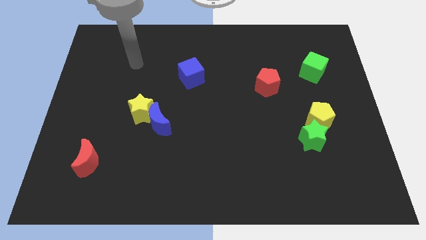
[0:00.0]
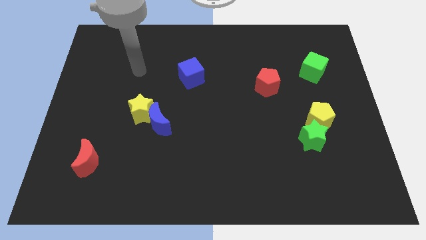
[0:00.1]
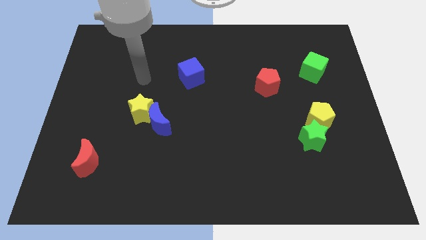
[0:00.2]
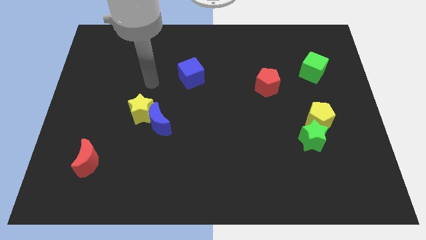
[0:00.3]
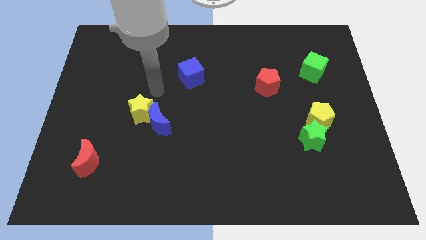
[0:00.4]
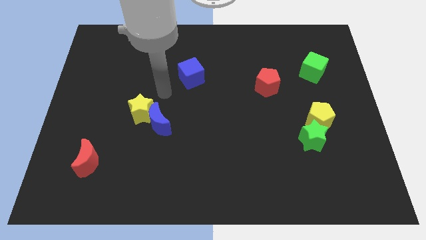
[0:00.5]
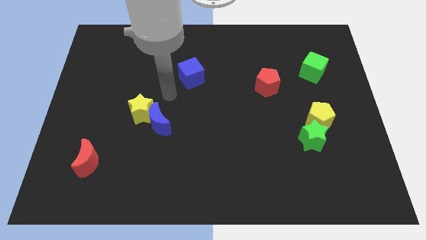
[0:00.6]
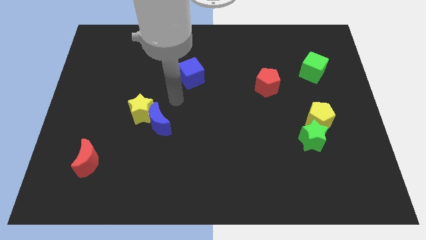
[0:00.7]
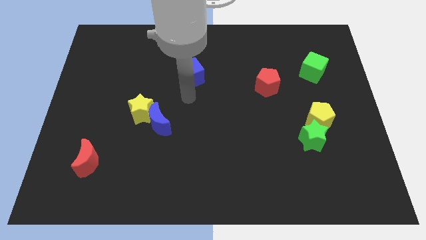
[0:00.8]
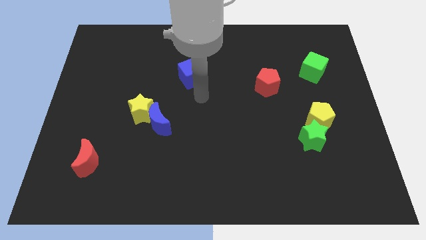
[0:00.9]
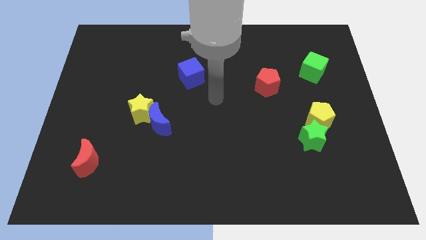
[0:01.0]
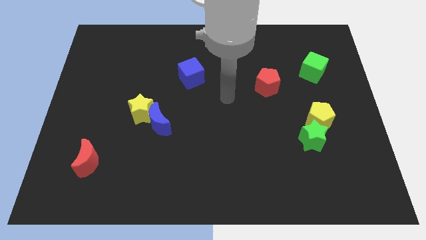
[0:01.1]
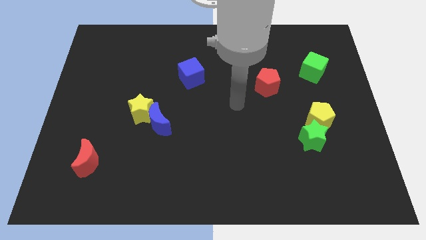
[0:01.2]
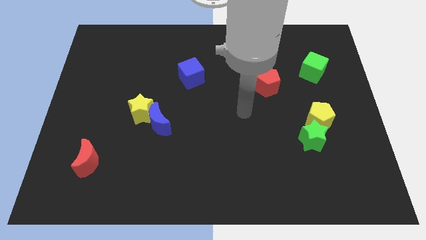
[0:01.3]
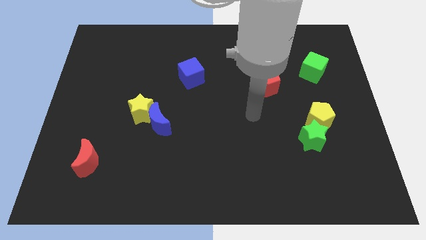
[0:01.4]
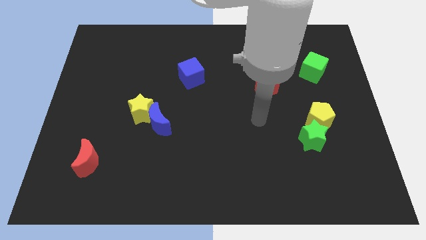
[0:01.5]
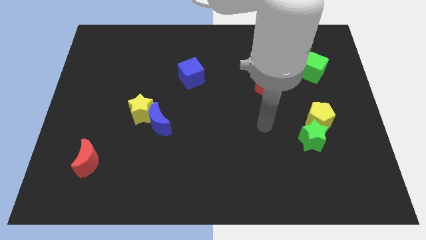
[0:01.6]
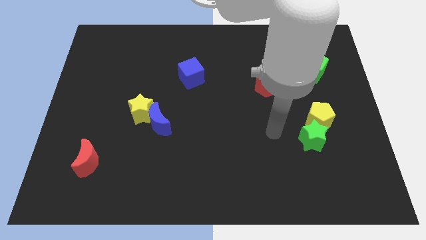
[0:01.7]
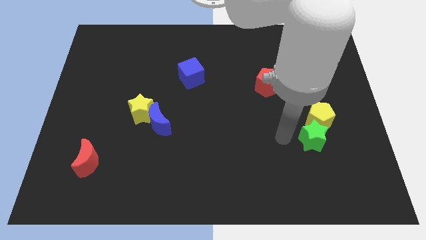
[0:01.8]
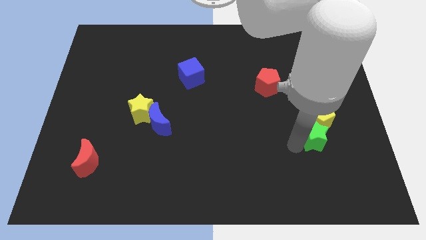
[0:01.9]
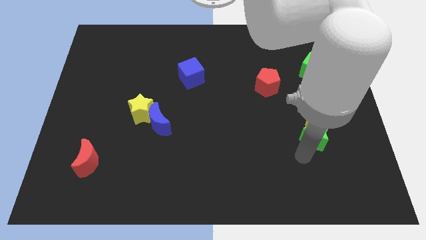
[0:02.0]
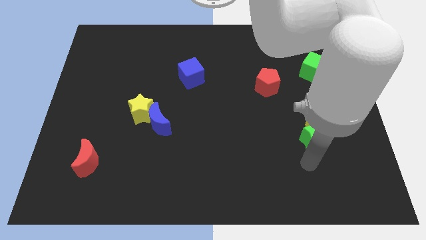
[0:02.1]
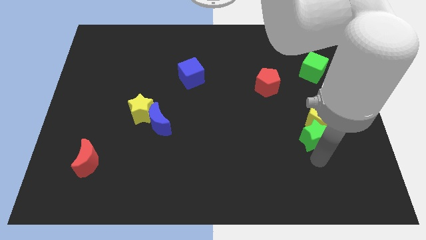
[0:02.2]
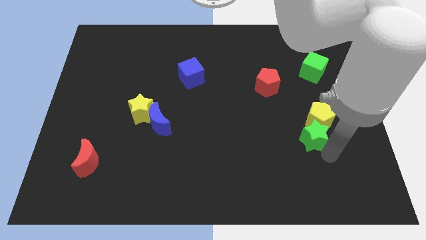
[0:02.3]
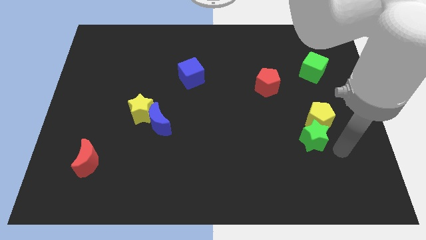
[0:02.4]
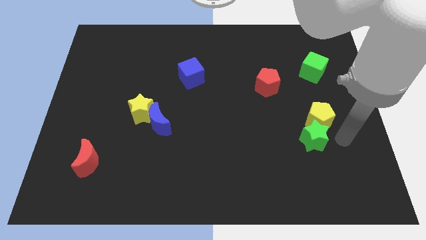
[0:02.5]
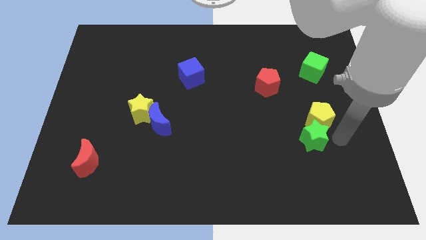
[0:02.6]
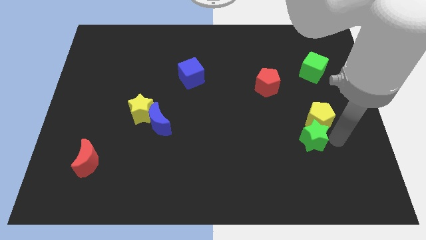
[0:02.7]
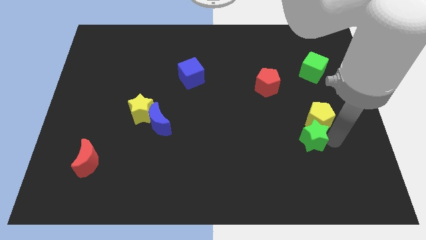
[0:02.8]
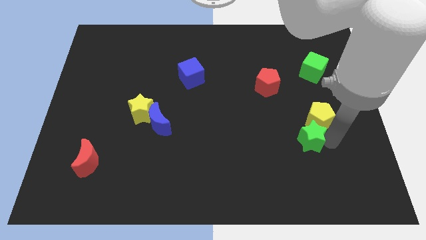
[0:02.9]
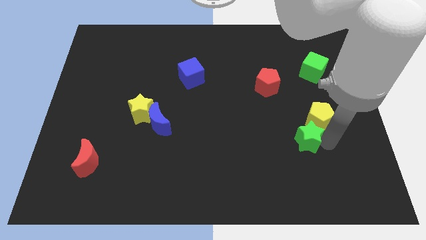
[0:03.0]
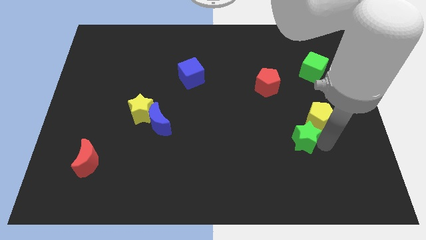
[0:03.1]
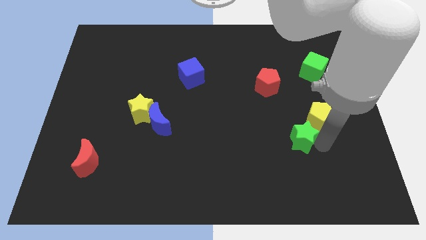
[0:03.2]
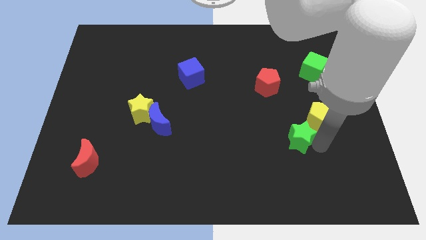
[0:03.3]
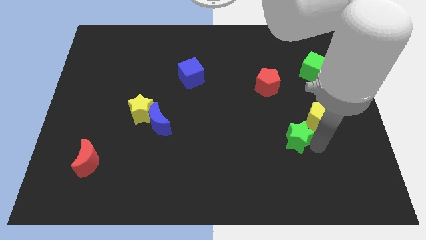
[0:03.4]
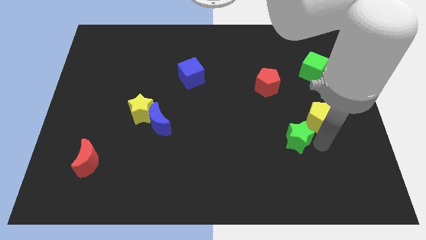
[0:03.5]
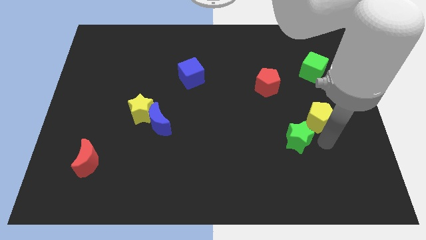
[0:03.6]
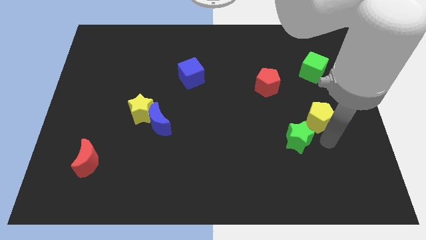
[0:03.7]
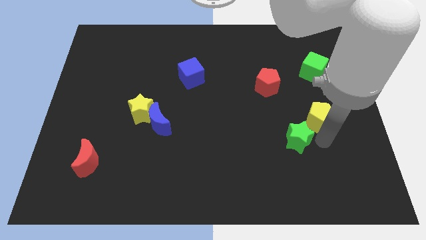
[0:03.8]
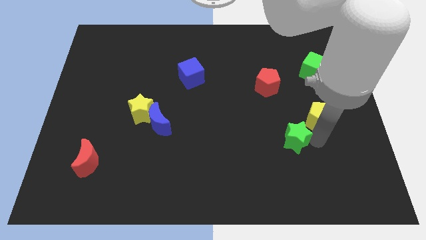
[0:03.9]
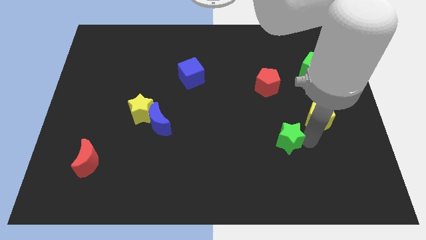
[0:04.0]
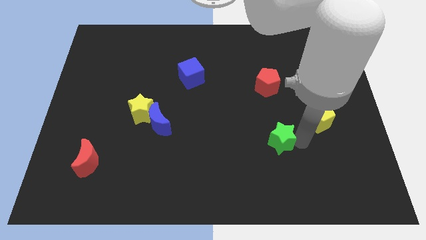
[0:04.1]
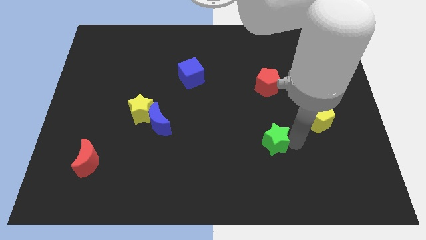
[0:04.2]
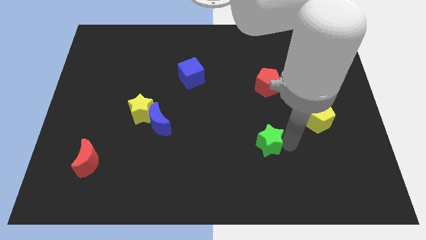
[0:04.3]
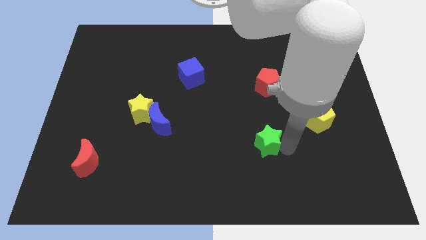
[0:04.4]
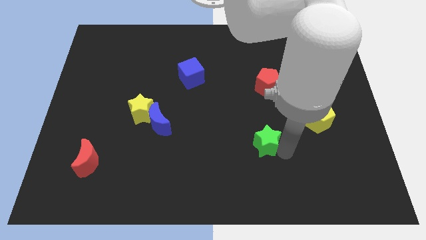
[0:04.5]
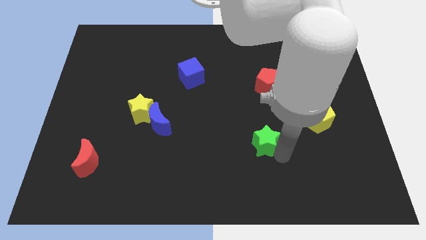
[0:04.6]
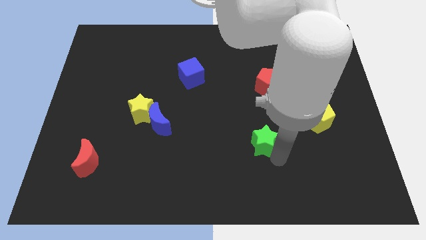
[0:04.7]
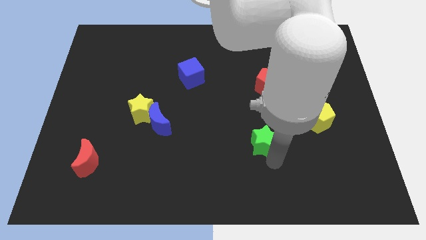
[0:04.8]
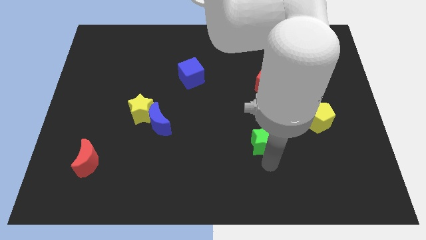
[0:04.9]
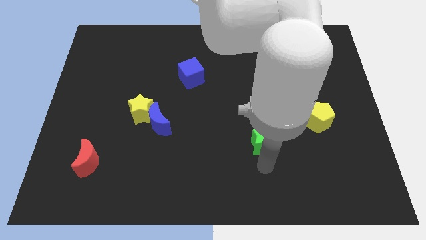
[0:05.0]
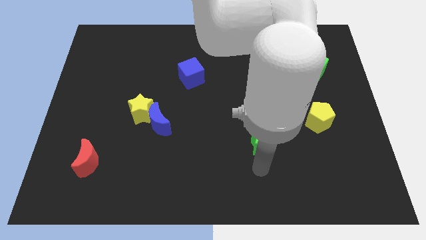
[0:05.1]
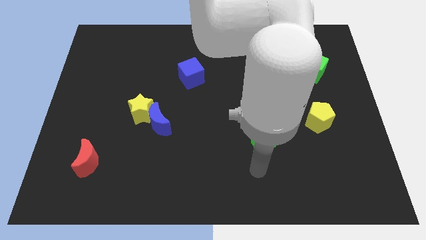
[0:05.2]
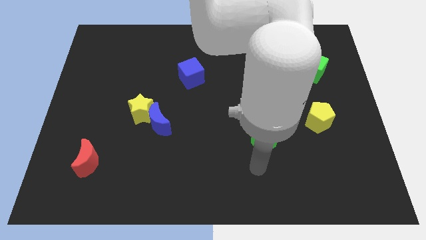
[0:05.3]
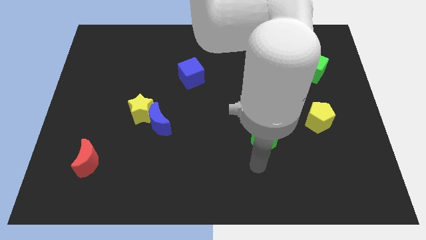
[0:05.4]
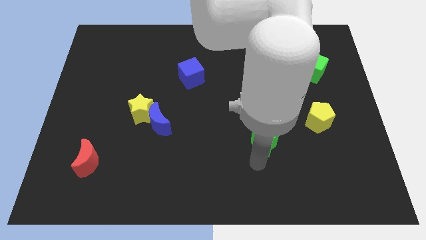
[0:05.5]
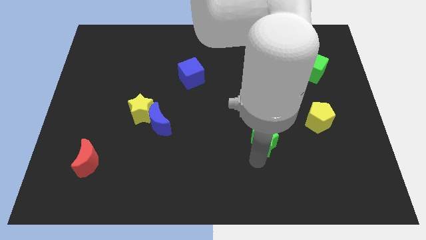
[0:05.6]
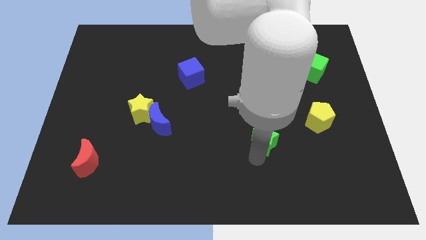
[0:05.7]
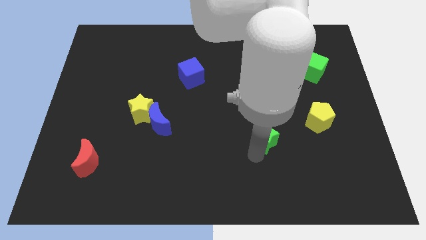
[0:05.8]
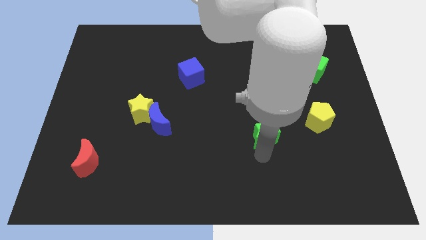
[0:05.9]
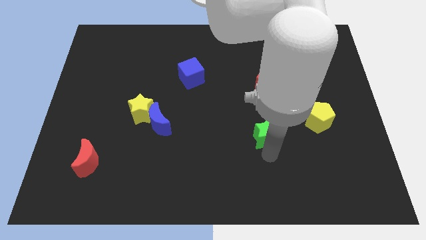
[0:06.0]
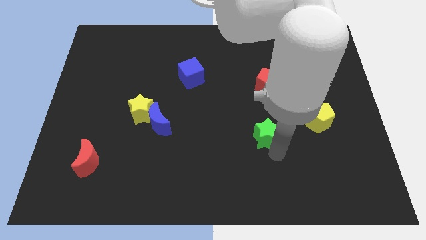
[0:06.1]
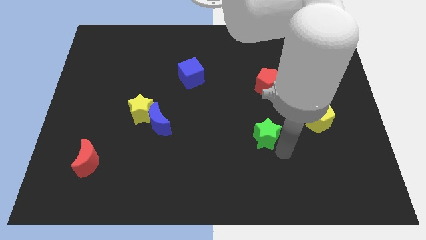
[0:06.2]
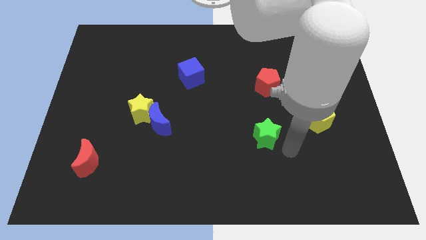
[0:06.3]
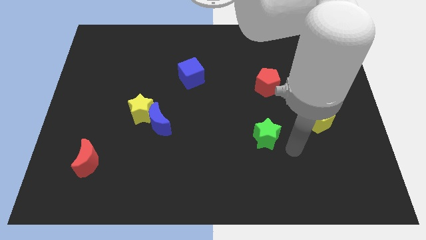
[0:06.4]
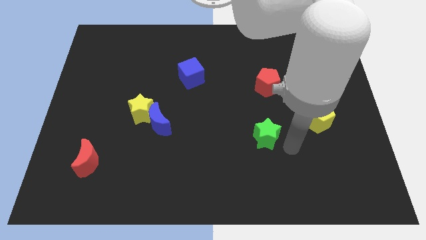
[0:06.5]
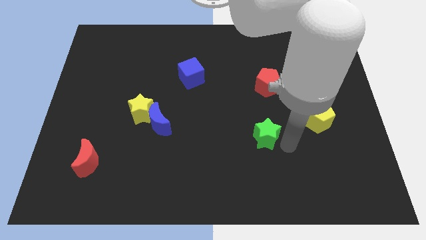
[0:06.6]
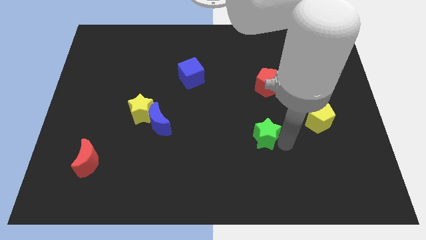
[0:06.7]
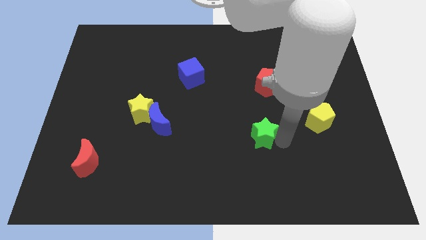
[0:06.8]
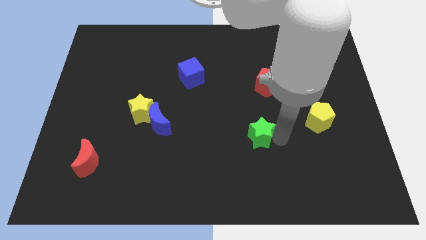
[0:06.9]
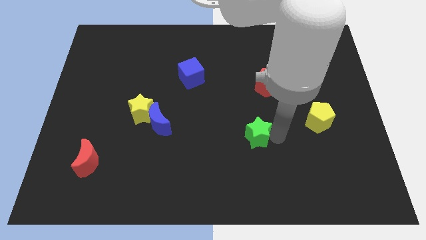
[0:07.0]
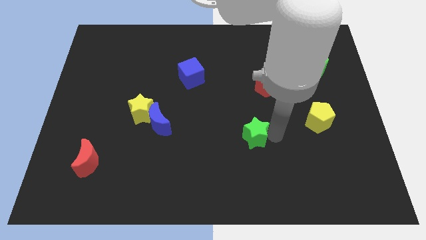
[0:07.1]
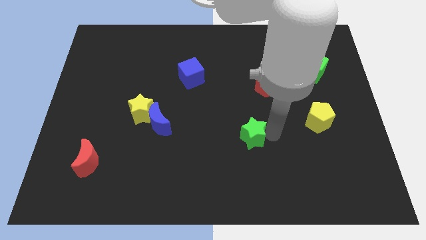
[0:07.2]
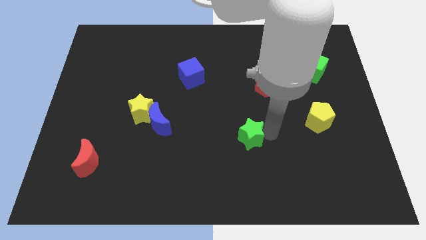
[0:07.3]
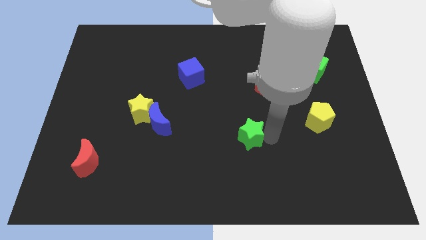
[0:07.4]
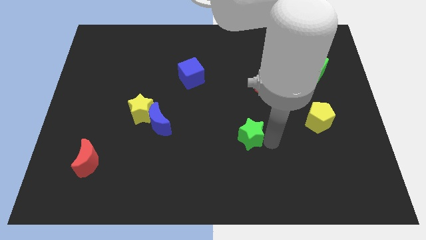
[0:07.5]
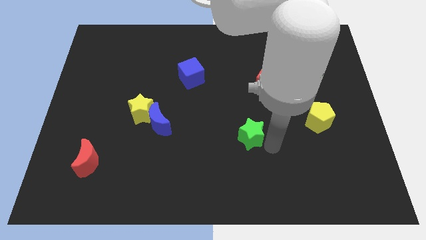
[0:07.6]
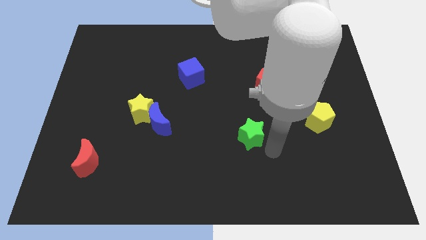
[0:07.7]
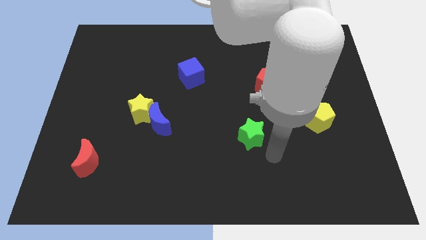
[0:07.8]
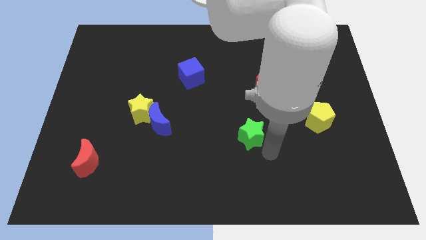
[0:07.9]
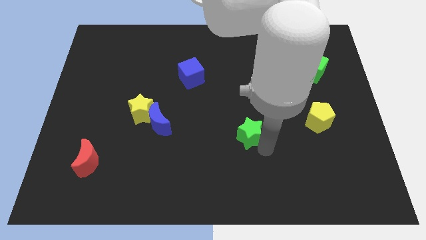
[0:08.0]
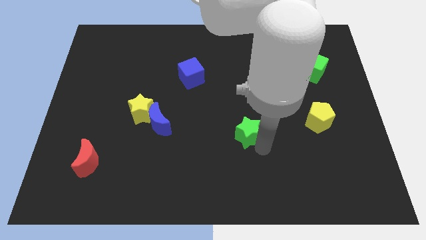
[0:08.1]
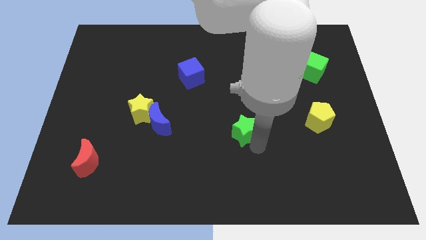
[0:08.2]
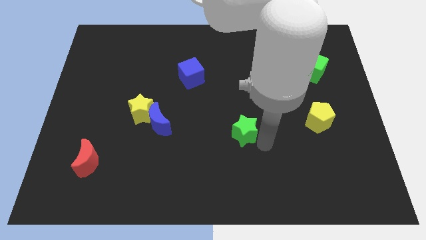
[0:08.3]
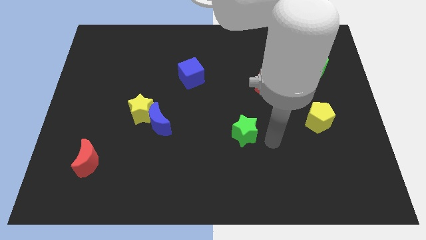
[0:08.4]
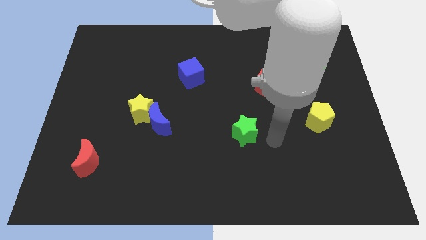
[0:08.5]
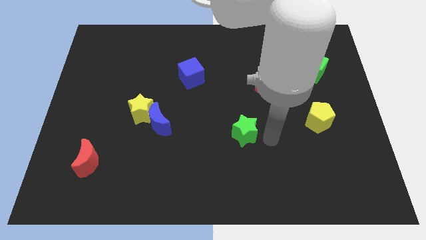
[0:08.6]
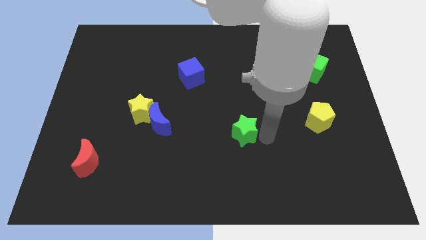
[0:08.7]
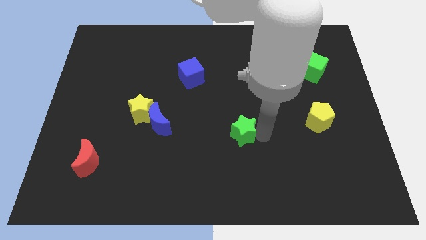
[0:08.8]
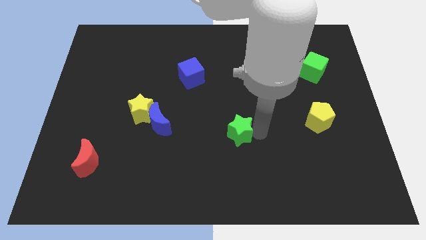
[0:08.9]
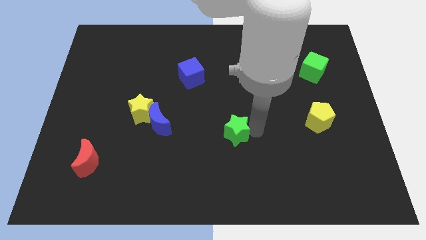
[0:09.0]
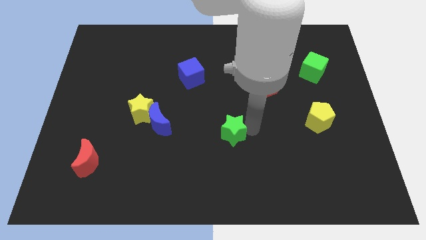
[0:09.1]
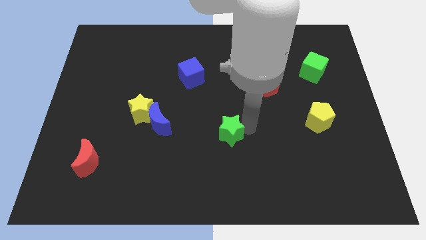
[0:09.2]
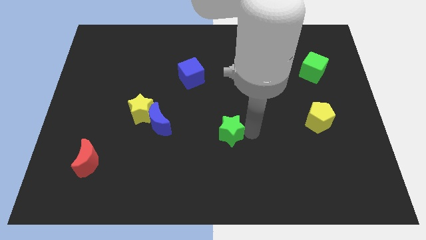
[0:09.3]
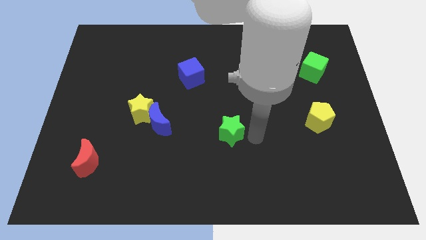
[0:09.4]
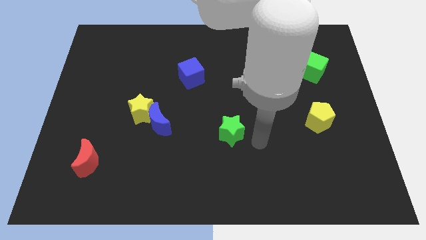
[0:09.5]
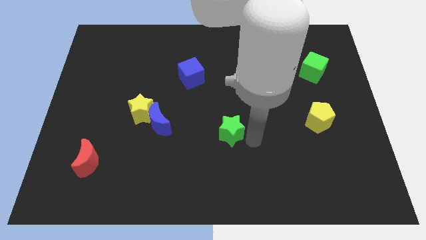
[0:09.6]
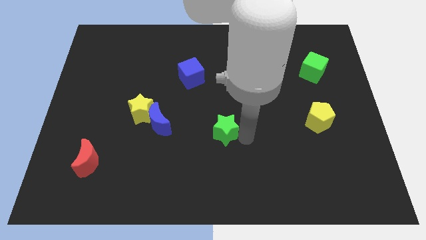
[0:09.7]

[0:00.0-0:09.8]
slide the green star just right of the blue moon
